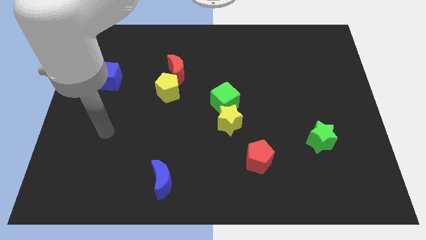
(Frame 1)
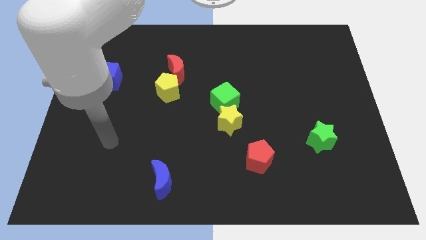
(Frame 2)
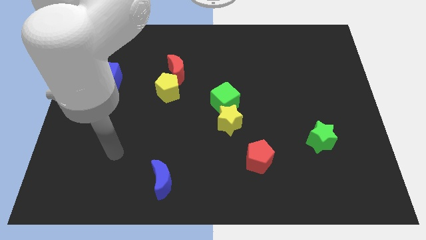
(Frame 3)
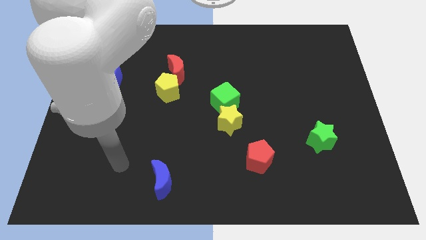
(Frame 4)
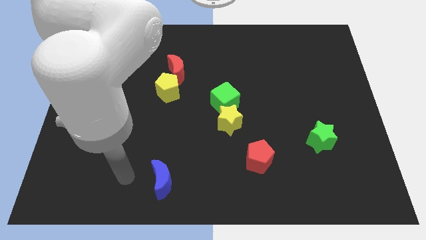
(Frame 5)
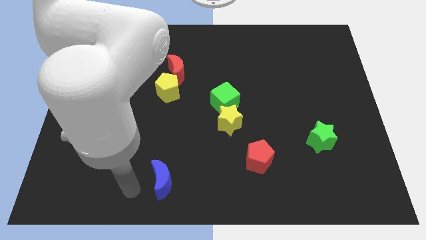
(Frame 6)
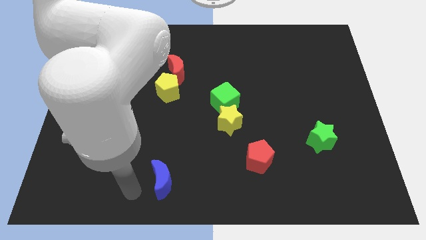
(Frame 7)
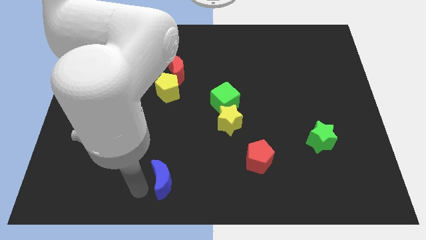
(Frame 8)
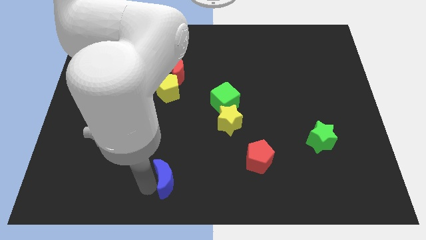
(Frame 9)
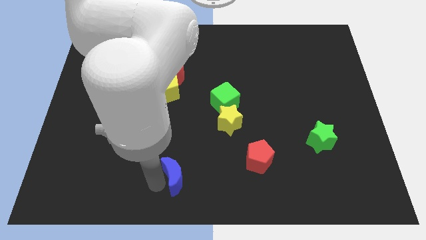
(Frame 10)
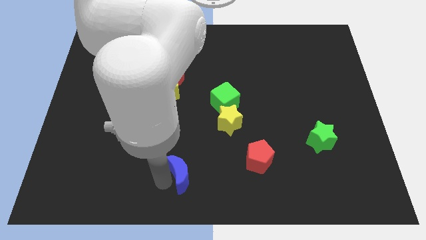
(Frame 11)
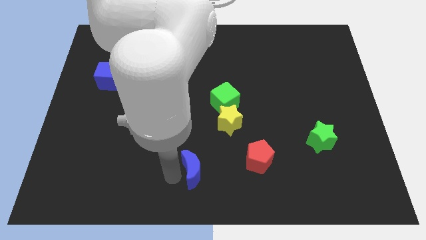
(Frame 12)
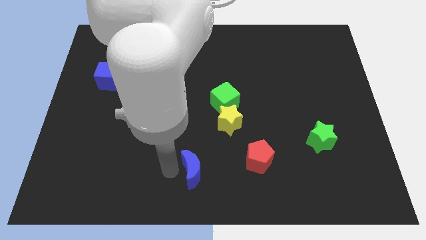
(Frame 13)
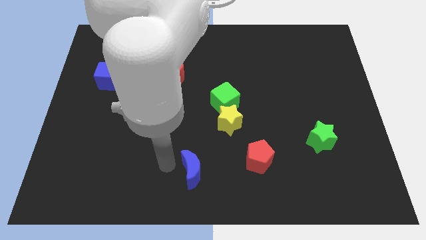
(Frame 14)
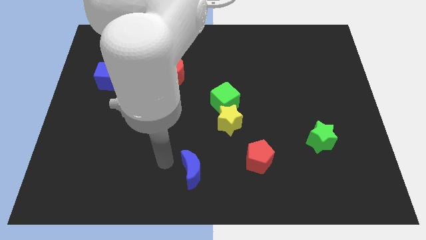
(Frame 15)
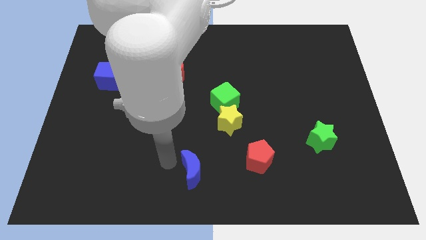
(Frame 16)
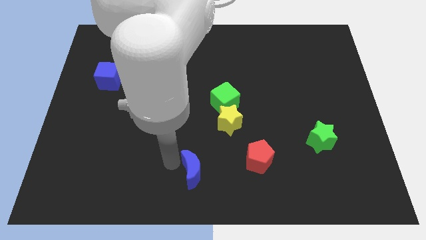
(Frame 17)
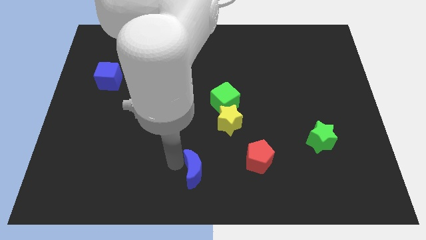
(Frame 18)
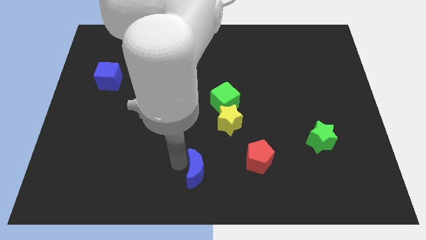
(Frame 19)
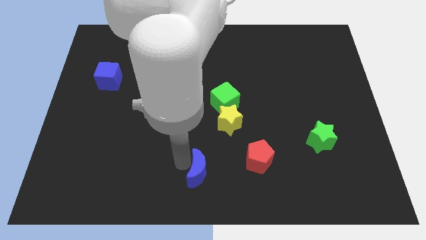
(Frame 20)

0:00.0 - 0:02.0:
slightly push the blue moon to the right

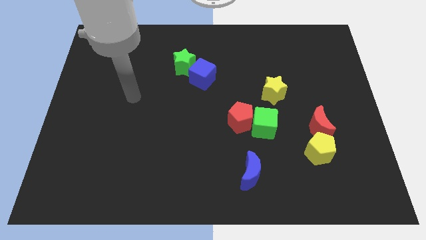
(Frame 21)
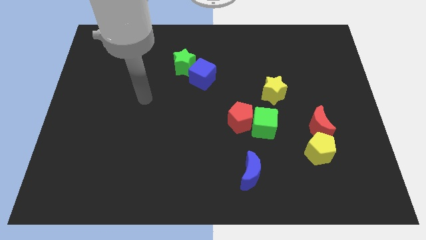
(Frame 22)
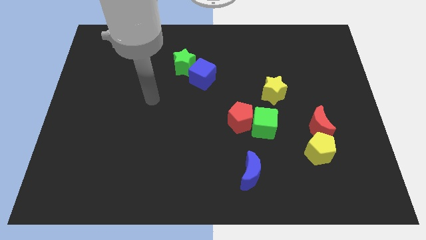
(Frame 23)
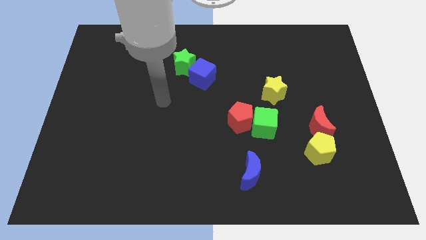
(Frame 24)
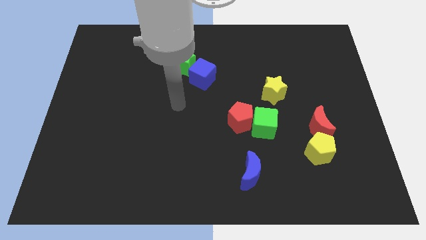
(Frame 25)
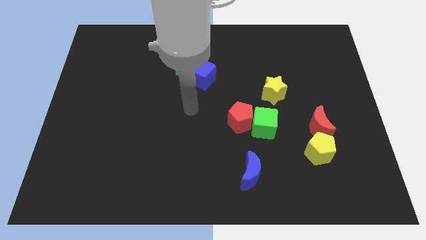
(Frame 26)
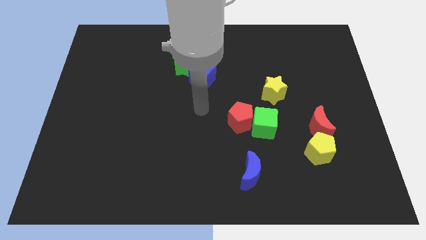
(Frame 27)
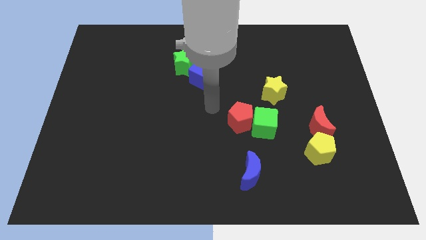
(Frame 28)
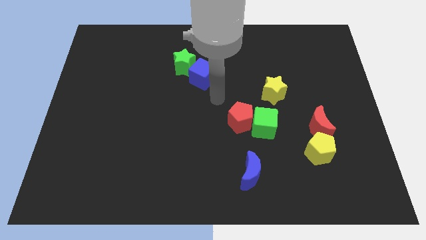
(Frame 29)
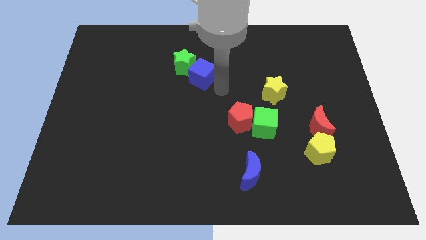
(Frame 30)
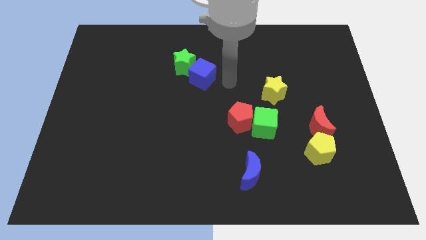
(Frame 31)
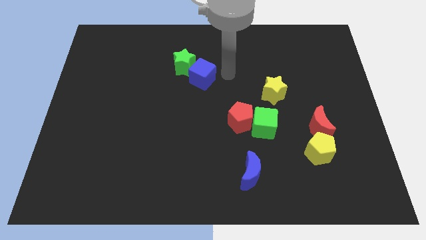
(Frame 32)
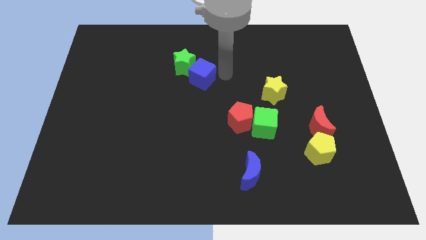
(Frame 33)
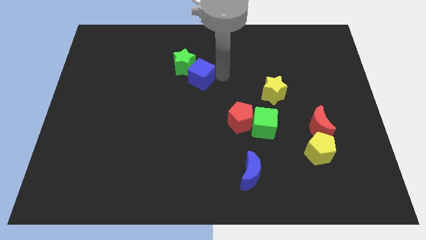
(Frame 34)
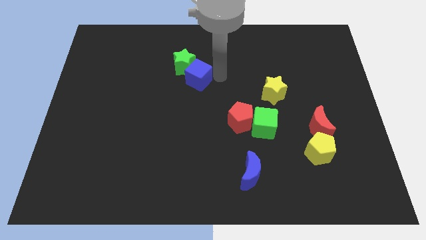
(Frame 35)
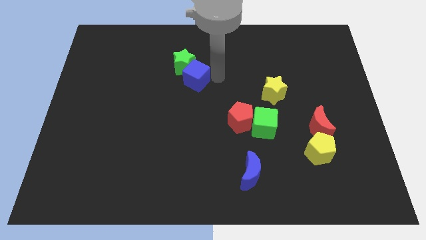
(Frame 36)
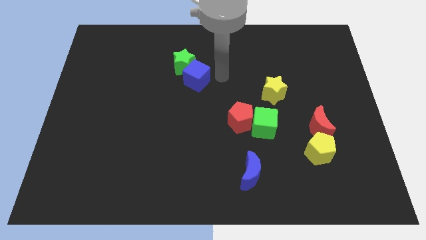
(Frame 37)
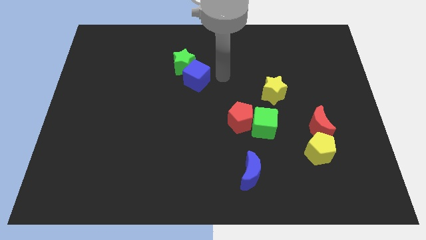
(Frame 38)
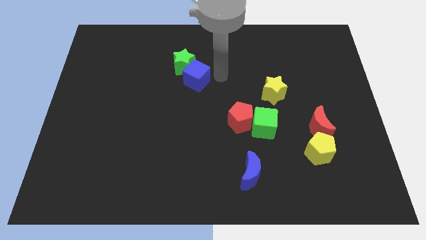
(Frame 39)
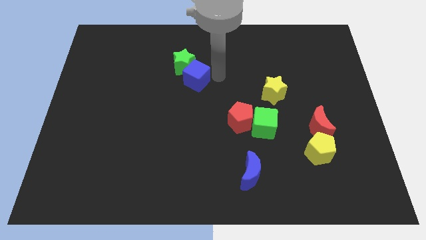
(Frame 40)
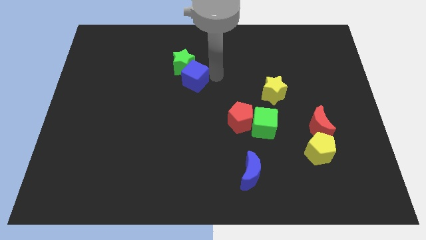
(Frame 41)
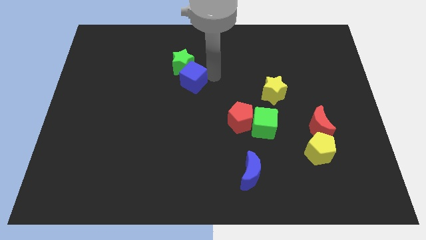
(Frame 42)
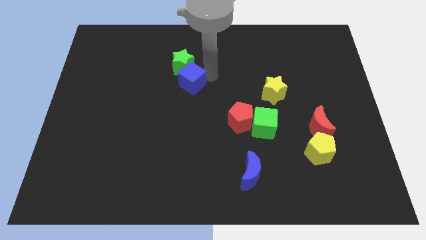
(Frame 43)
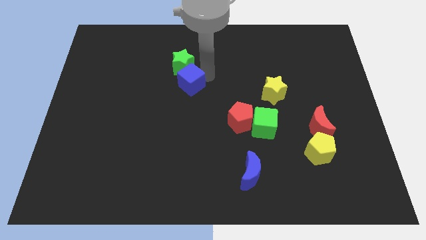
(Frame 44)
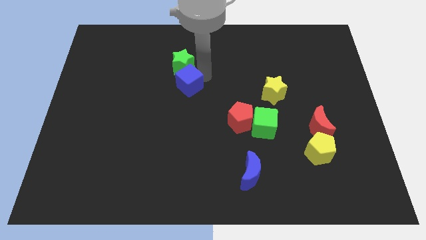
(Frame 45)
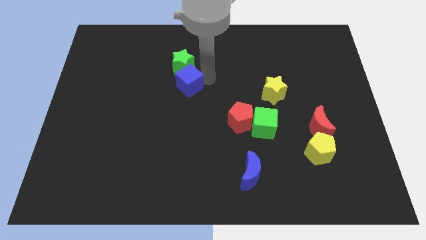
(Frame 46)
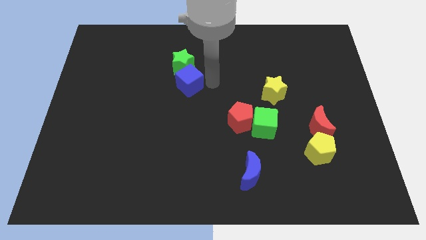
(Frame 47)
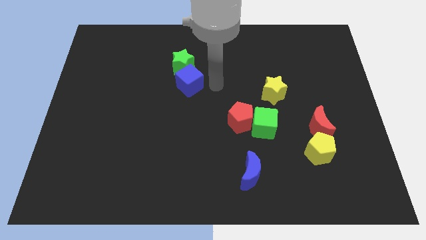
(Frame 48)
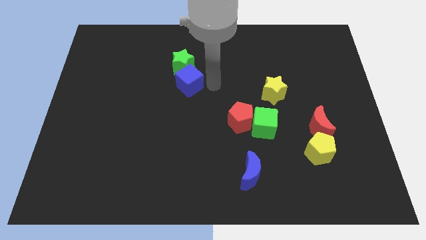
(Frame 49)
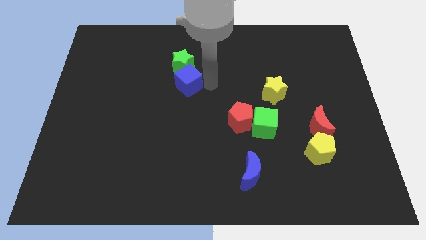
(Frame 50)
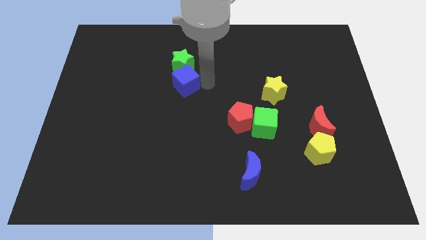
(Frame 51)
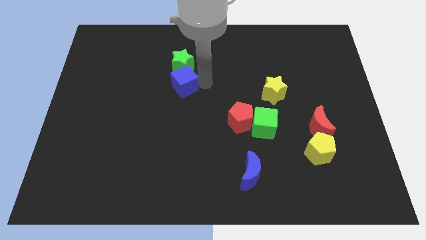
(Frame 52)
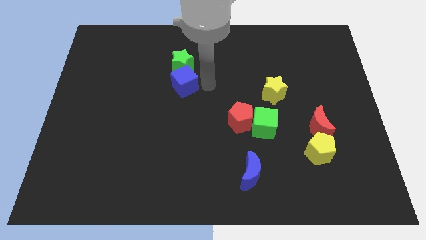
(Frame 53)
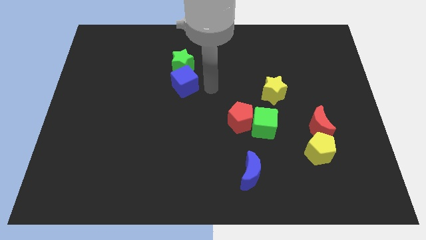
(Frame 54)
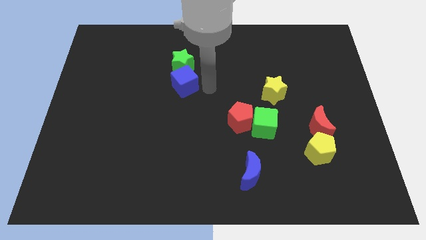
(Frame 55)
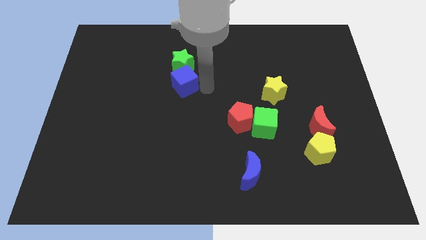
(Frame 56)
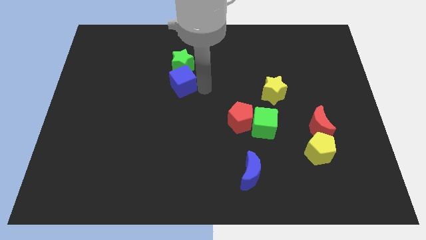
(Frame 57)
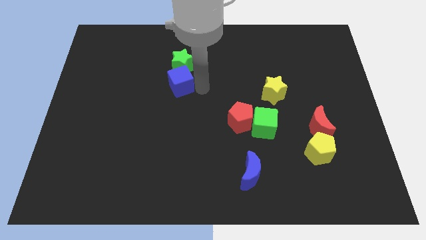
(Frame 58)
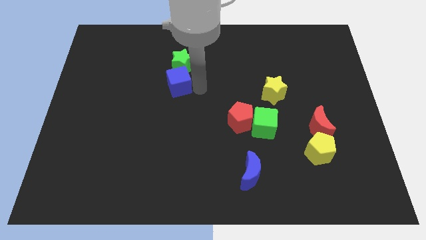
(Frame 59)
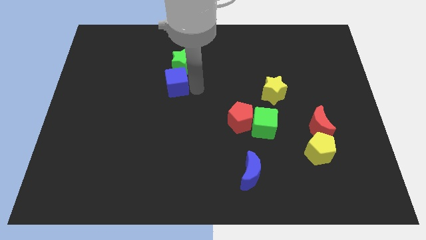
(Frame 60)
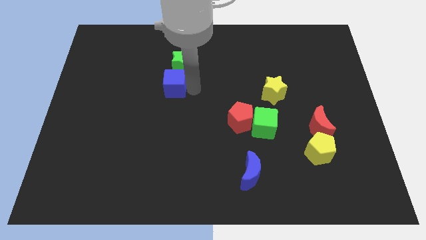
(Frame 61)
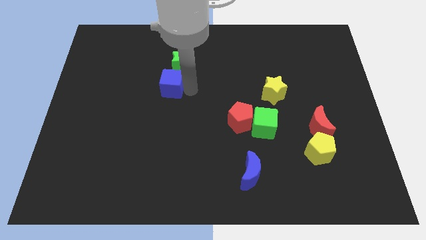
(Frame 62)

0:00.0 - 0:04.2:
move the blue cube to the left a little bit

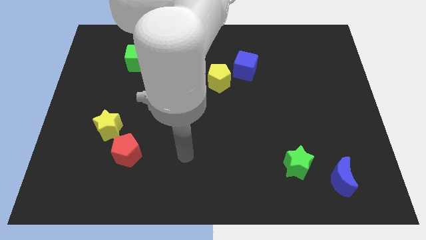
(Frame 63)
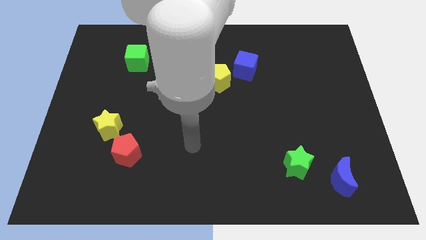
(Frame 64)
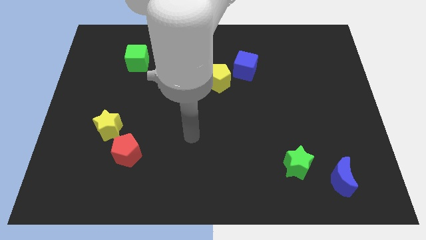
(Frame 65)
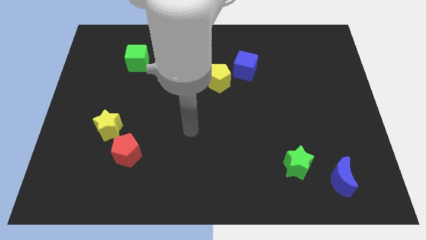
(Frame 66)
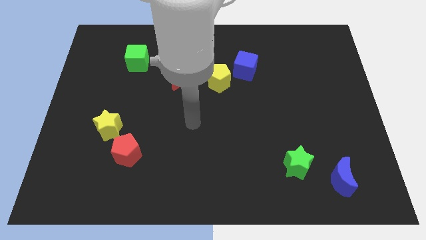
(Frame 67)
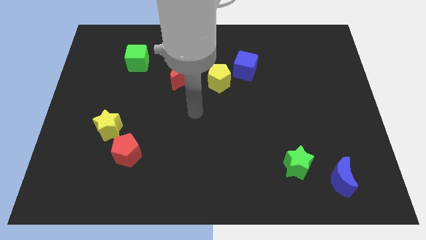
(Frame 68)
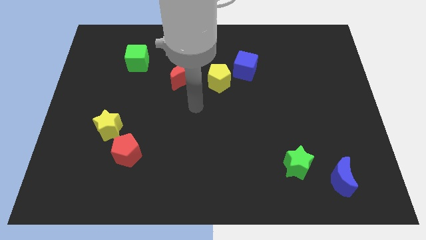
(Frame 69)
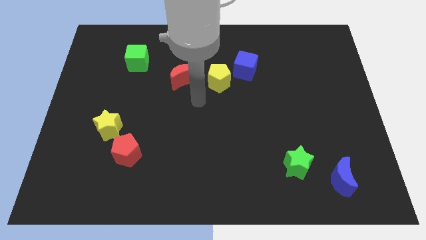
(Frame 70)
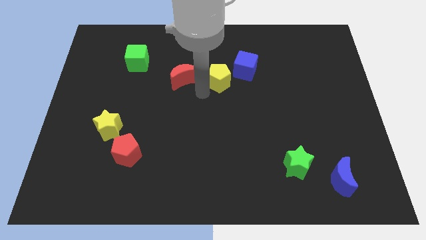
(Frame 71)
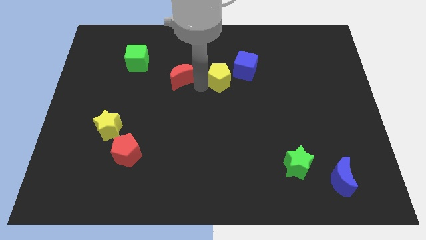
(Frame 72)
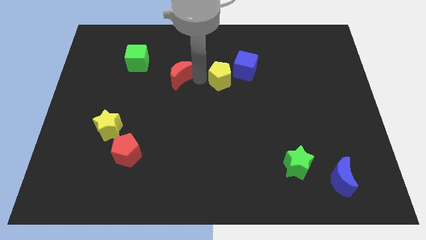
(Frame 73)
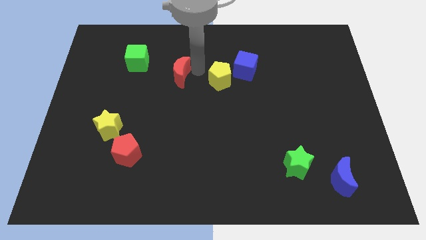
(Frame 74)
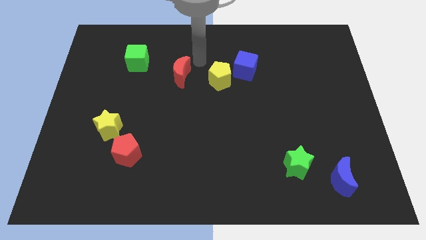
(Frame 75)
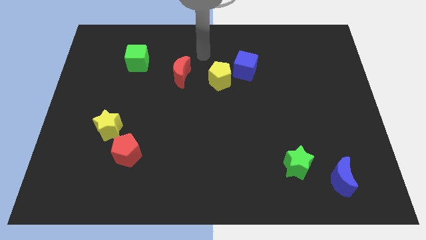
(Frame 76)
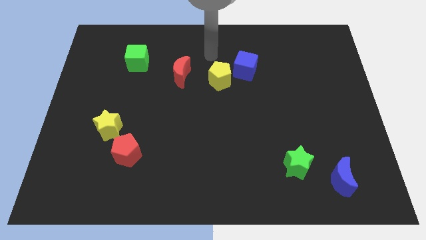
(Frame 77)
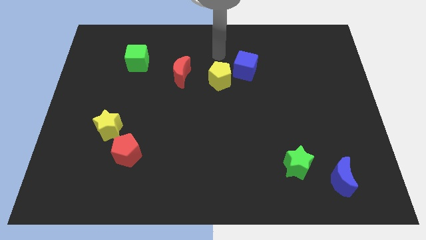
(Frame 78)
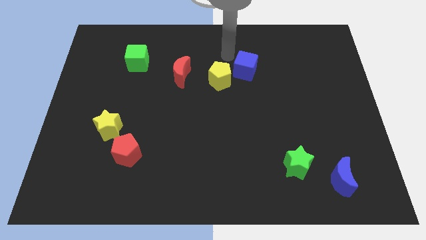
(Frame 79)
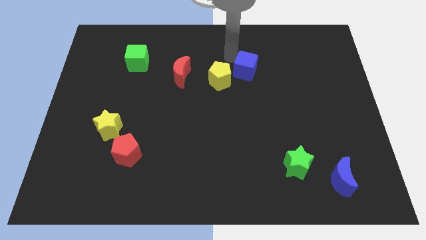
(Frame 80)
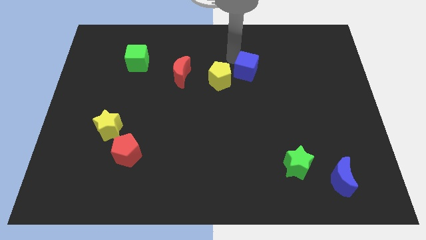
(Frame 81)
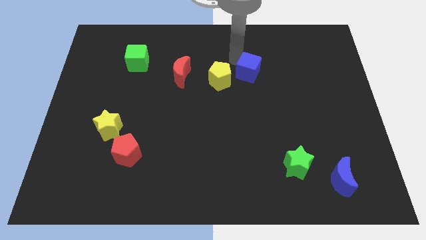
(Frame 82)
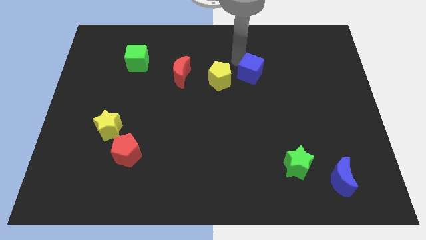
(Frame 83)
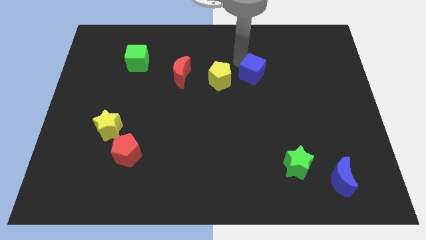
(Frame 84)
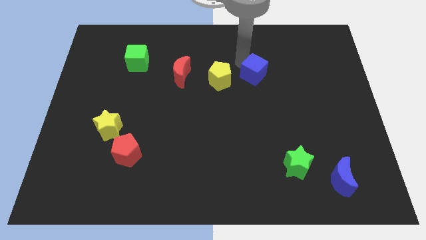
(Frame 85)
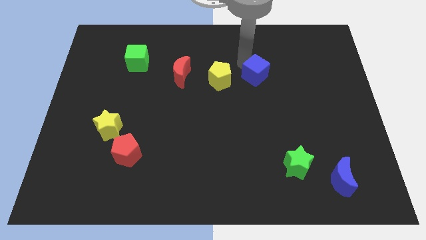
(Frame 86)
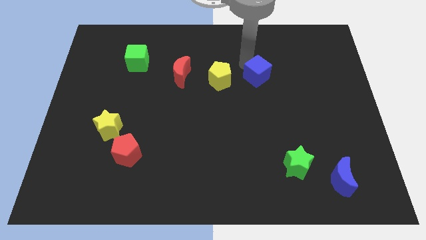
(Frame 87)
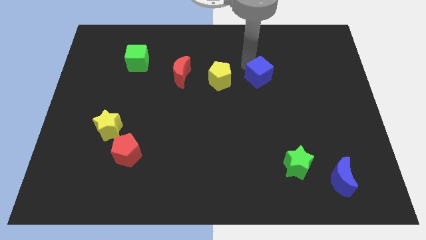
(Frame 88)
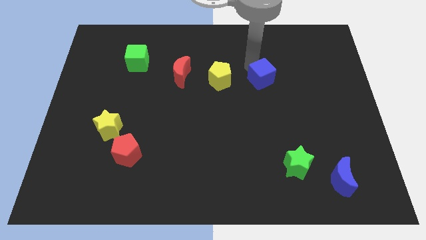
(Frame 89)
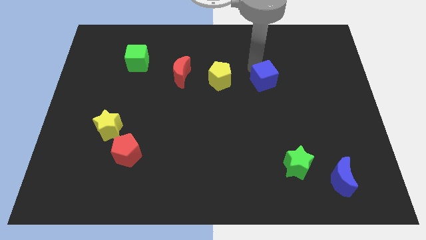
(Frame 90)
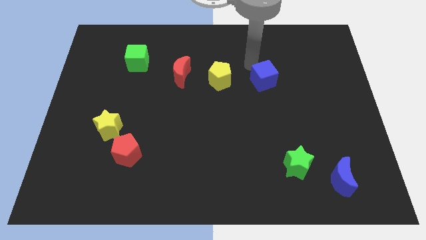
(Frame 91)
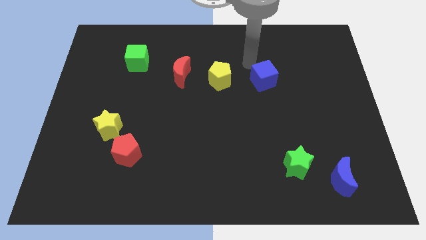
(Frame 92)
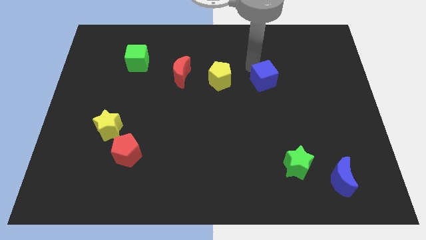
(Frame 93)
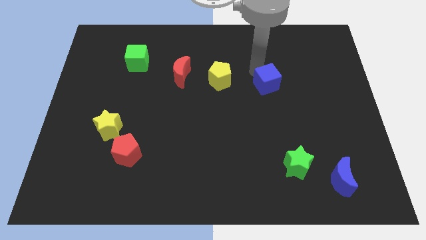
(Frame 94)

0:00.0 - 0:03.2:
move the blue cube slightly downwards and then right
